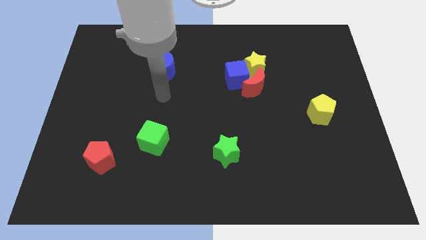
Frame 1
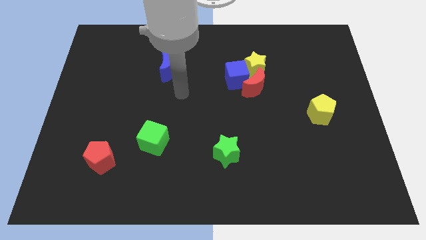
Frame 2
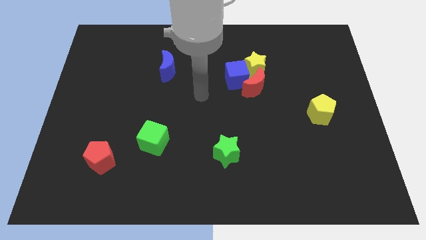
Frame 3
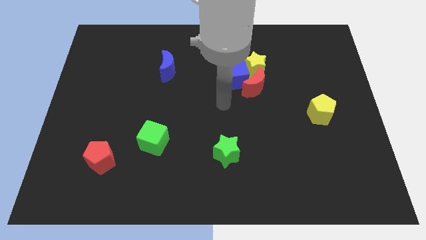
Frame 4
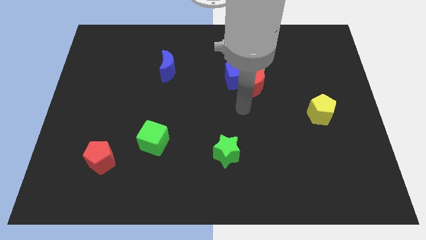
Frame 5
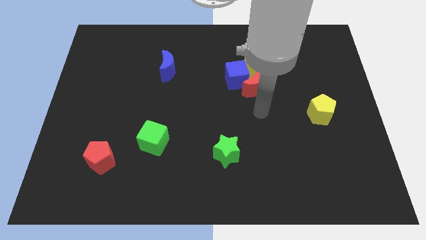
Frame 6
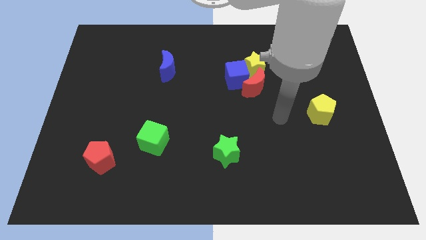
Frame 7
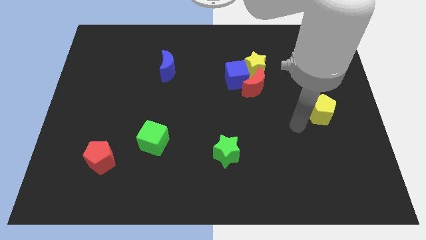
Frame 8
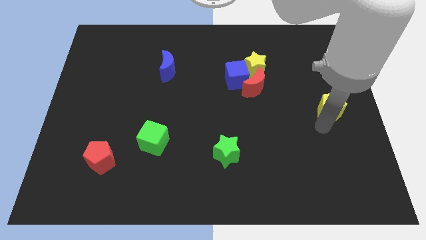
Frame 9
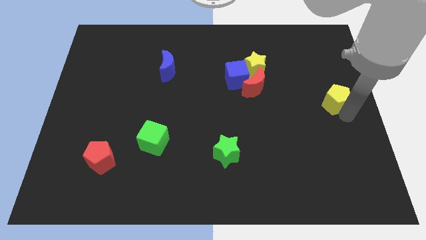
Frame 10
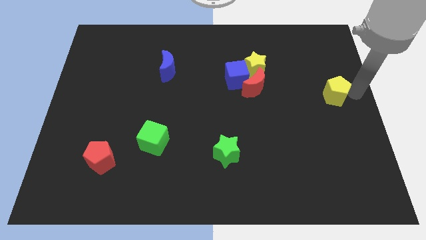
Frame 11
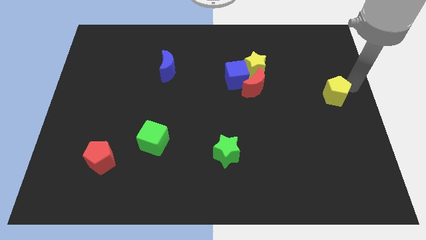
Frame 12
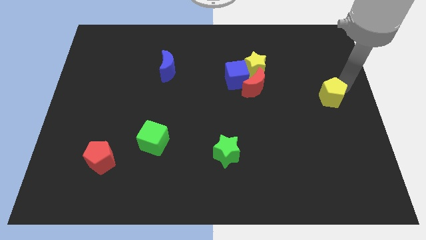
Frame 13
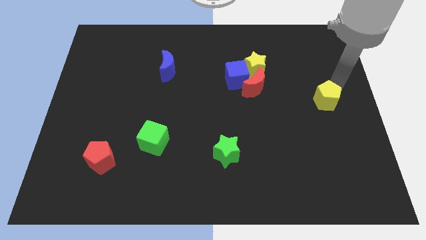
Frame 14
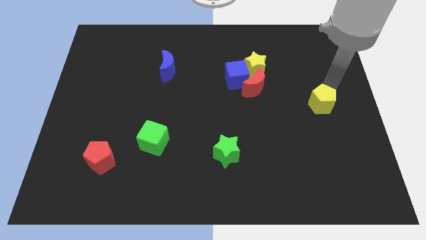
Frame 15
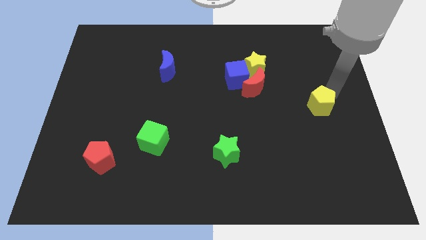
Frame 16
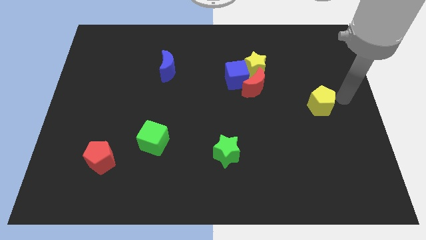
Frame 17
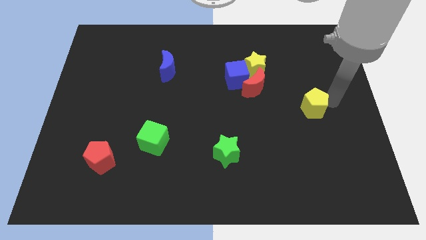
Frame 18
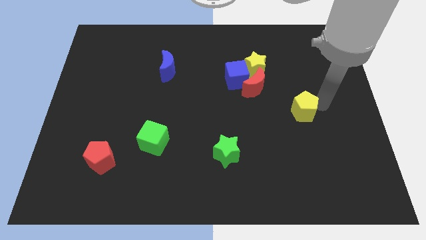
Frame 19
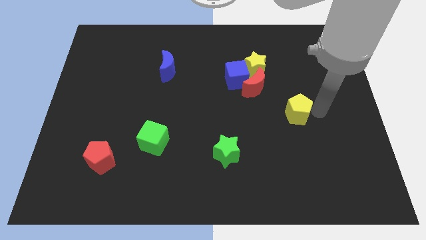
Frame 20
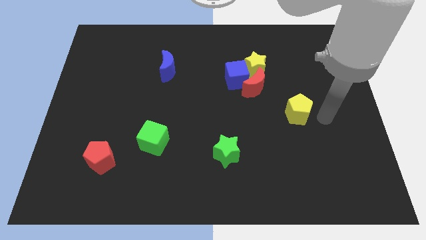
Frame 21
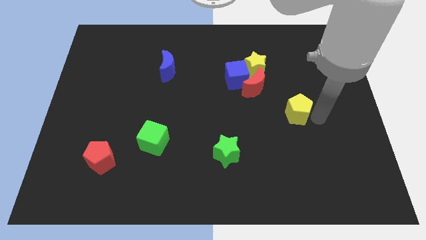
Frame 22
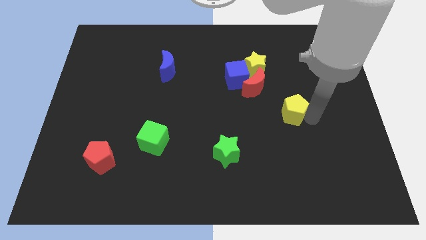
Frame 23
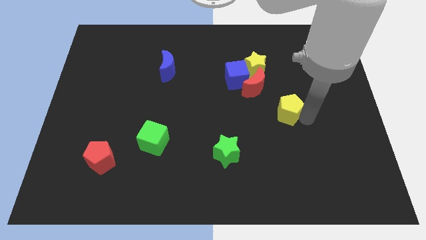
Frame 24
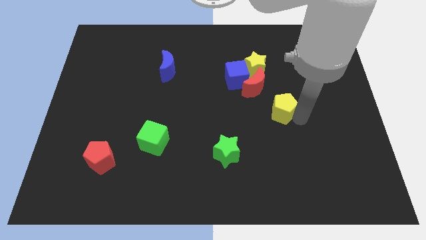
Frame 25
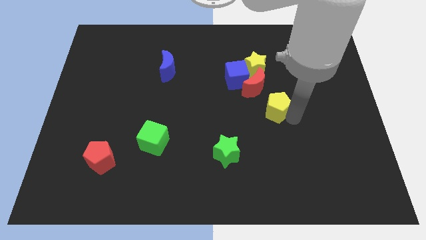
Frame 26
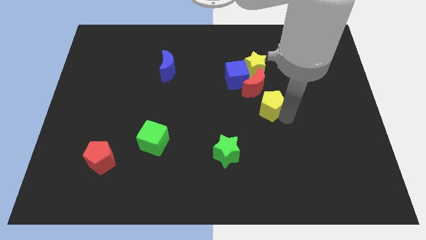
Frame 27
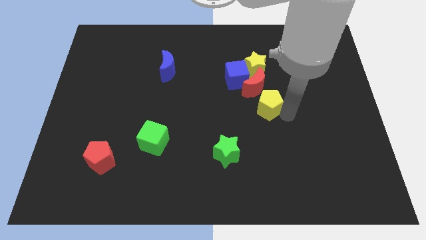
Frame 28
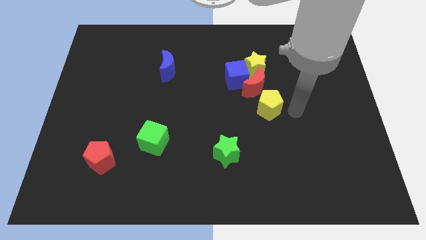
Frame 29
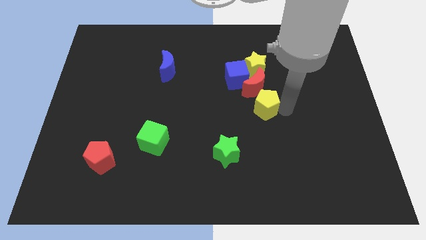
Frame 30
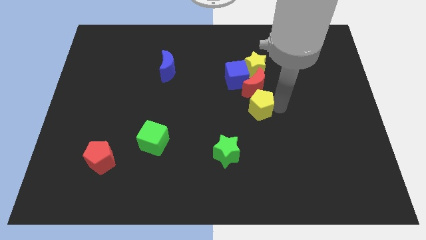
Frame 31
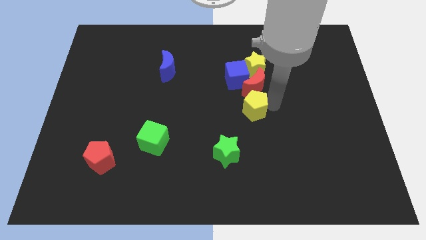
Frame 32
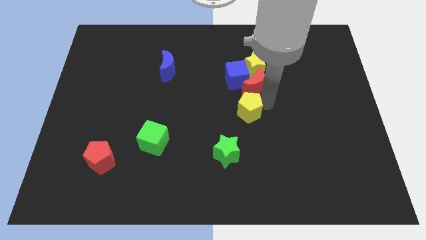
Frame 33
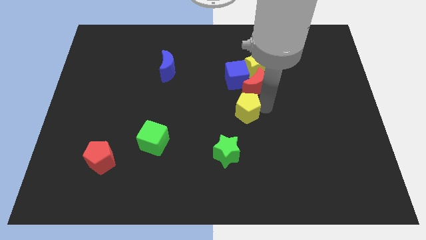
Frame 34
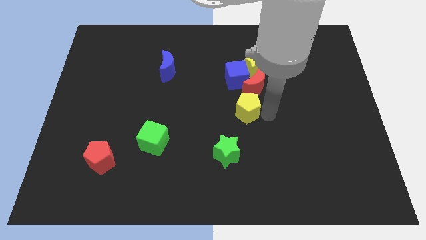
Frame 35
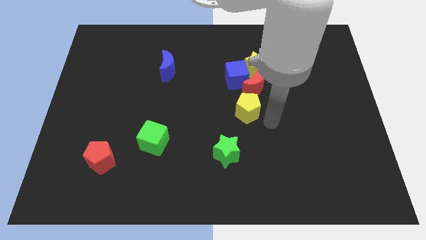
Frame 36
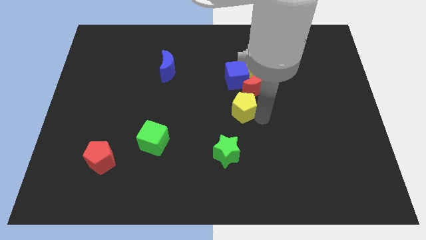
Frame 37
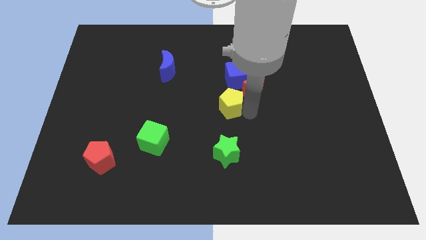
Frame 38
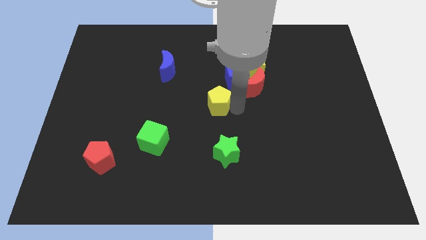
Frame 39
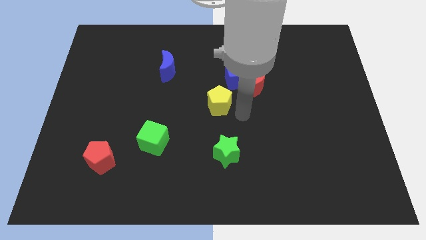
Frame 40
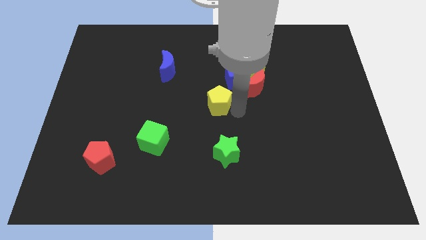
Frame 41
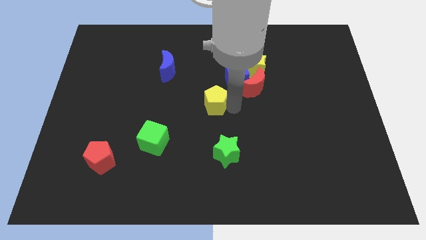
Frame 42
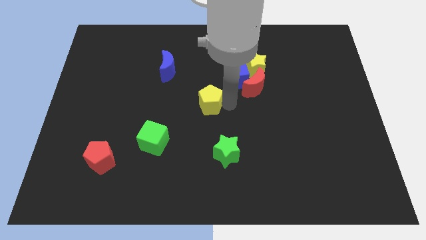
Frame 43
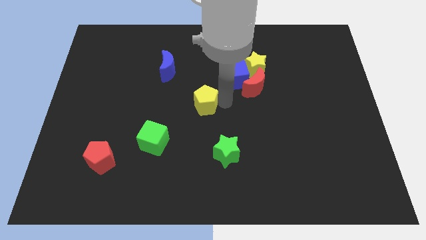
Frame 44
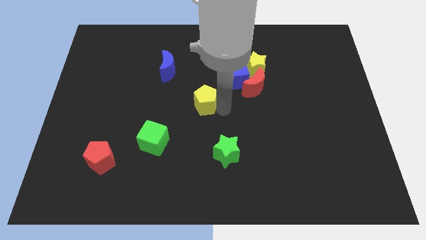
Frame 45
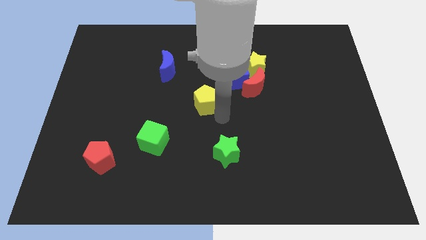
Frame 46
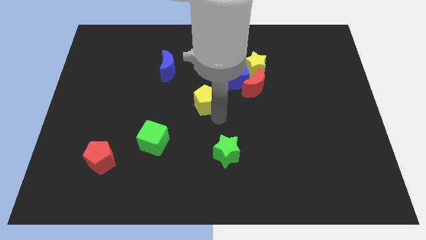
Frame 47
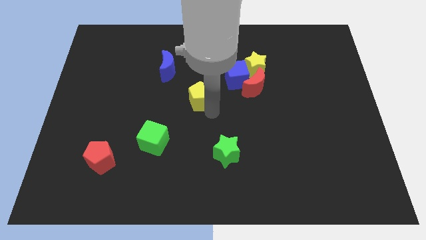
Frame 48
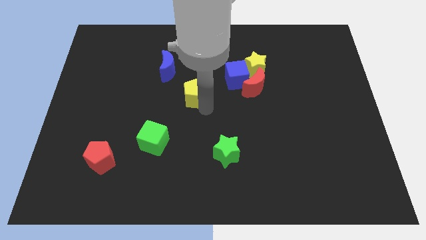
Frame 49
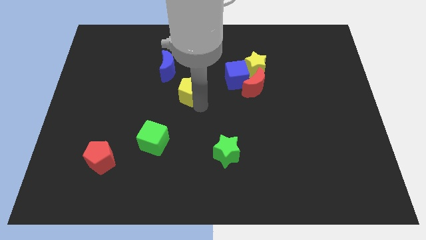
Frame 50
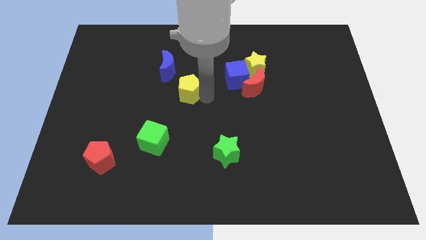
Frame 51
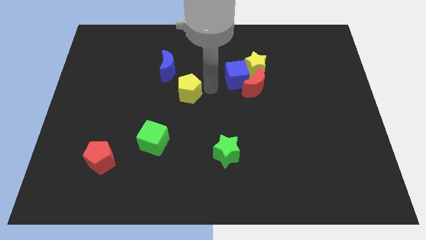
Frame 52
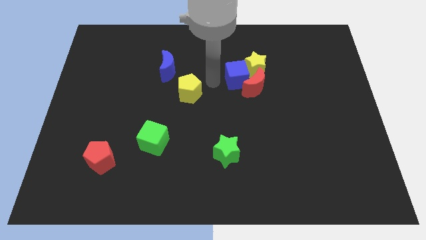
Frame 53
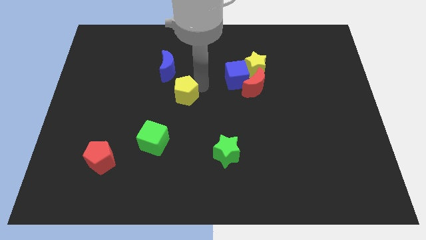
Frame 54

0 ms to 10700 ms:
move the yellow pentagon to the bottom of the blue moon

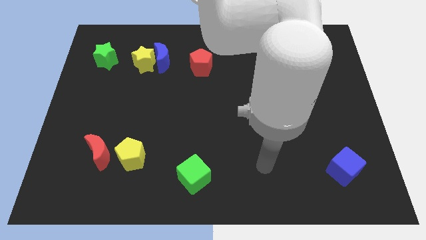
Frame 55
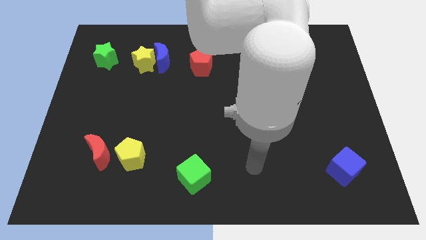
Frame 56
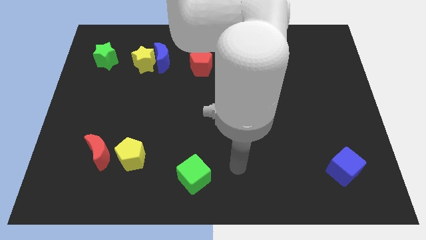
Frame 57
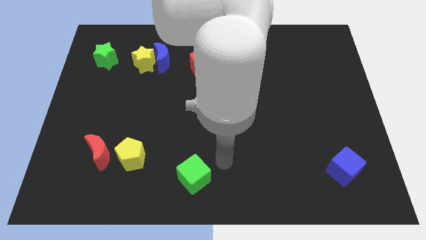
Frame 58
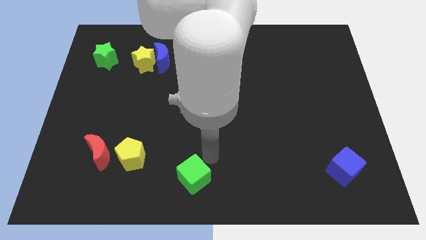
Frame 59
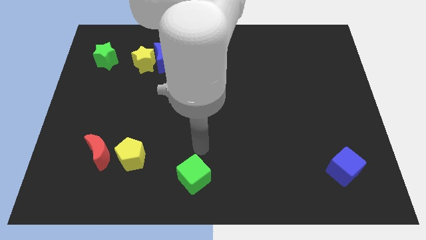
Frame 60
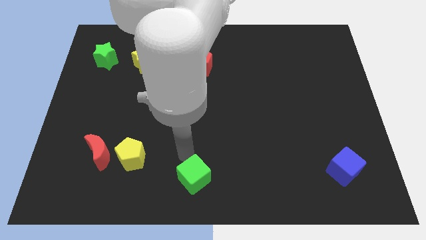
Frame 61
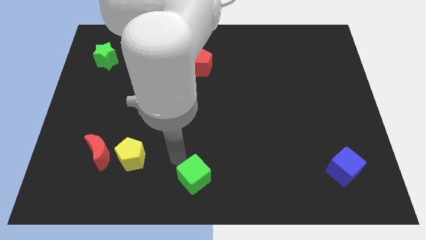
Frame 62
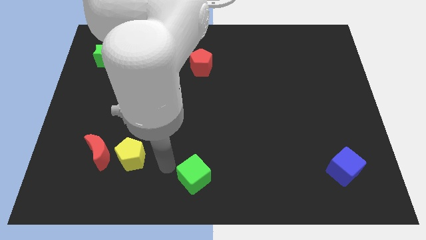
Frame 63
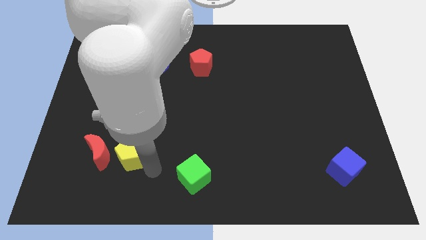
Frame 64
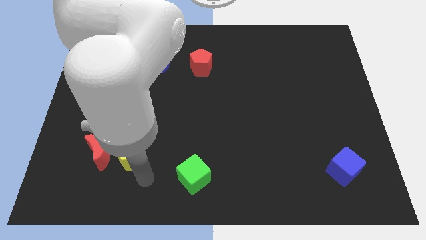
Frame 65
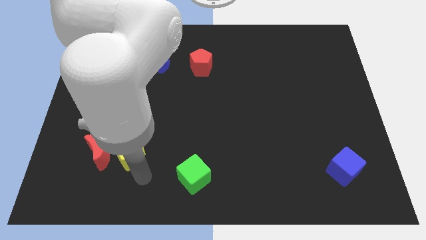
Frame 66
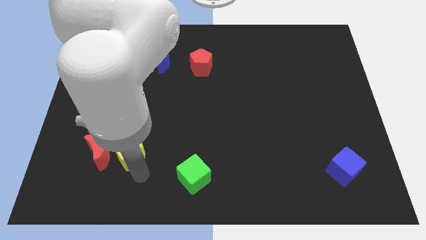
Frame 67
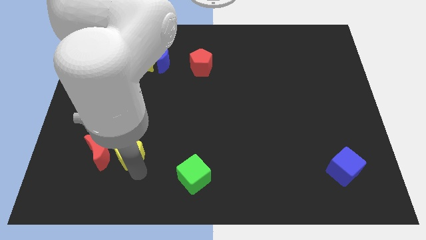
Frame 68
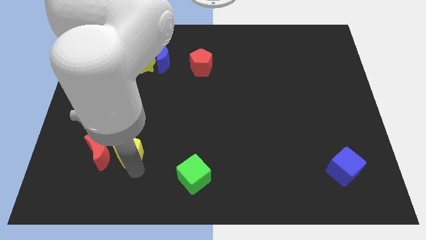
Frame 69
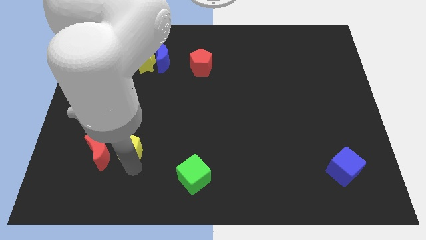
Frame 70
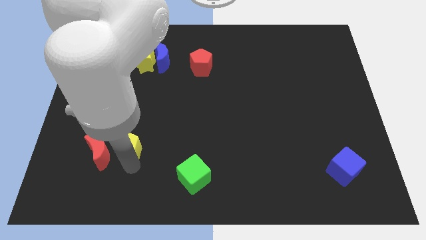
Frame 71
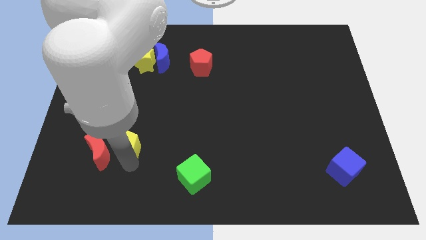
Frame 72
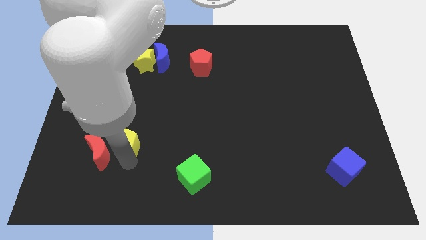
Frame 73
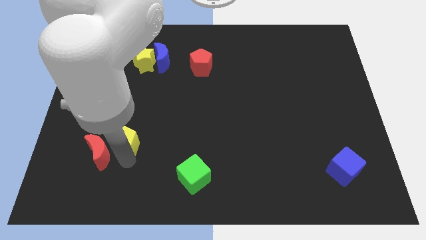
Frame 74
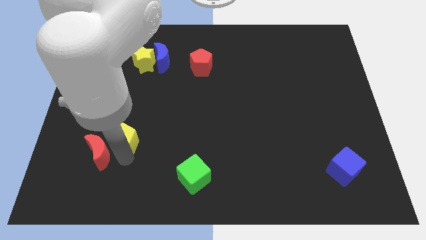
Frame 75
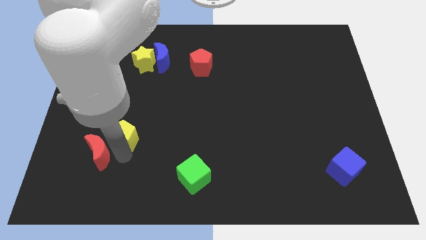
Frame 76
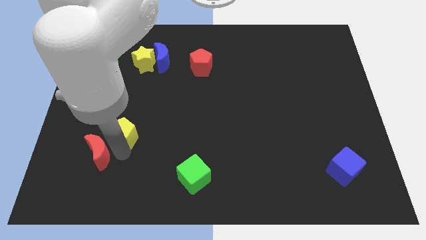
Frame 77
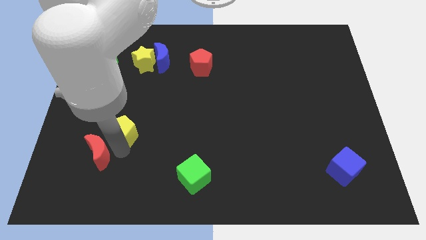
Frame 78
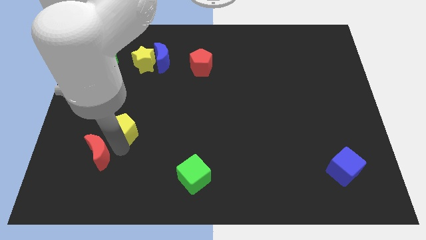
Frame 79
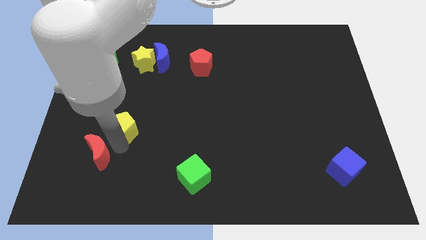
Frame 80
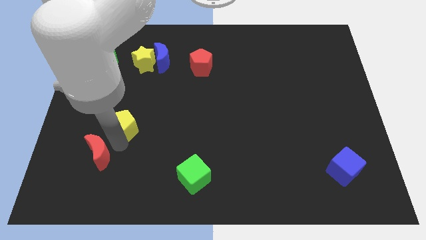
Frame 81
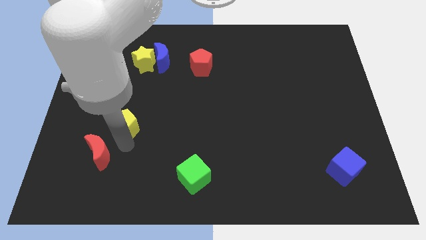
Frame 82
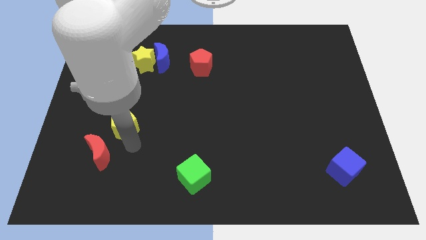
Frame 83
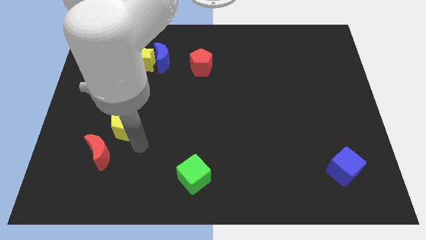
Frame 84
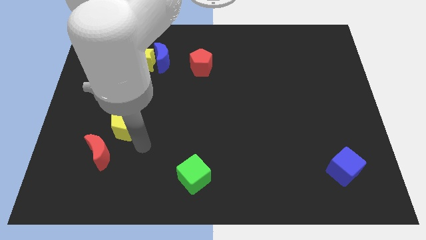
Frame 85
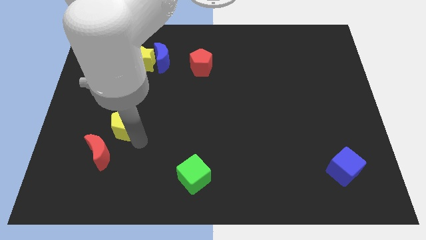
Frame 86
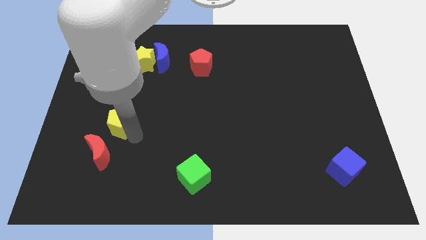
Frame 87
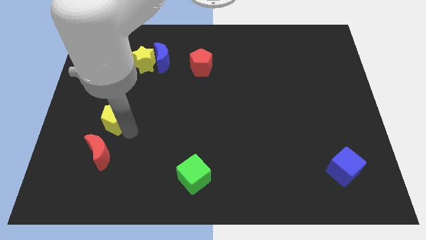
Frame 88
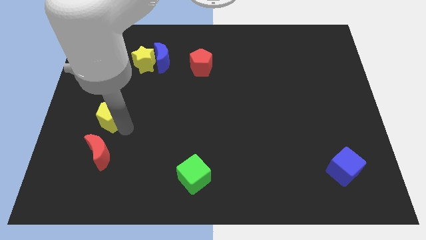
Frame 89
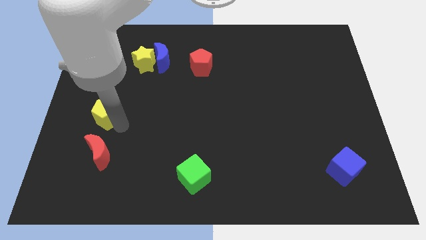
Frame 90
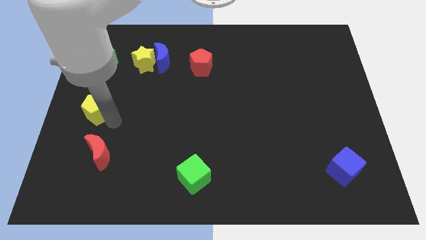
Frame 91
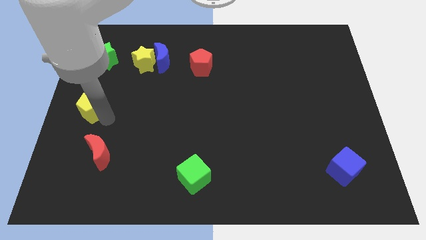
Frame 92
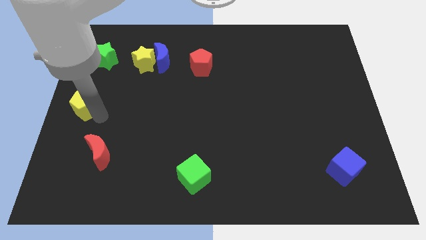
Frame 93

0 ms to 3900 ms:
move the yellow pentagon to the bottom side of the green star
